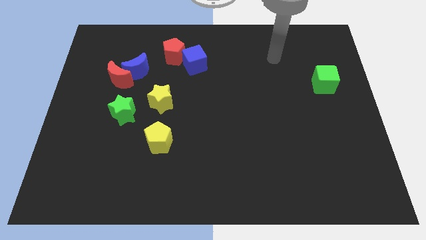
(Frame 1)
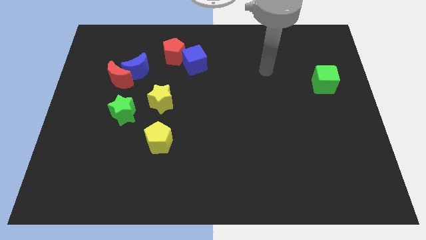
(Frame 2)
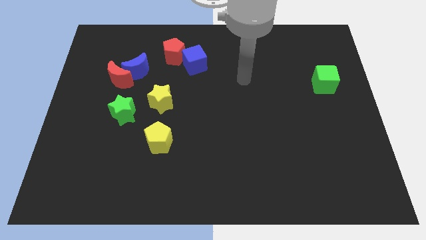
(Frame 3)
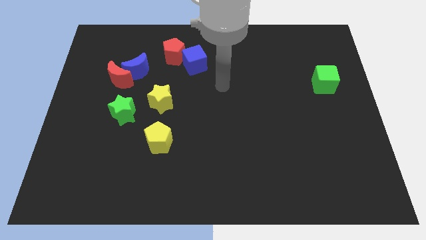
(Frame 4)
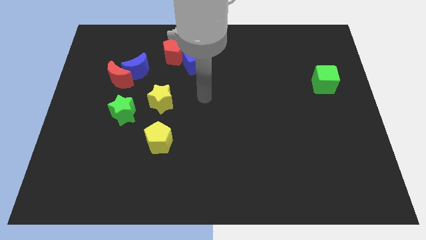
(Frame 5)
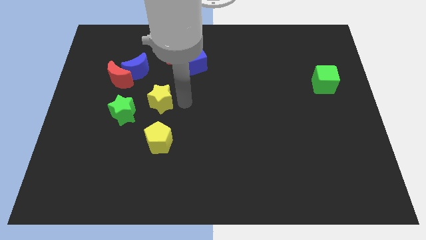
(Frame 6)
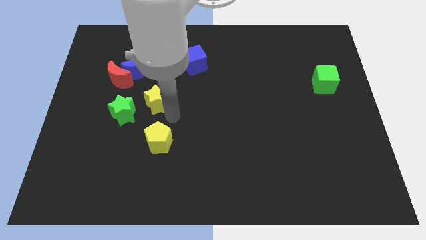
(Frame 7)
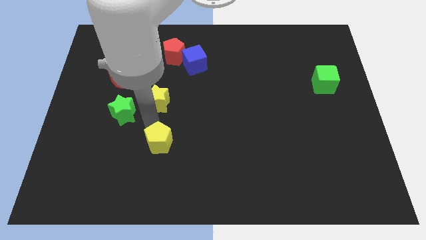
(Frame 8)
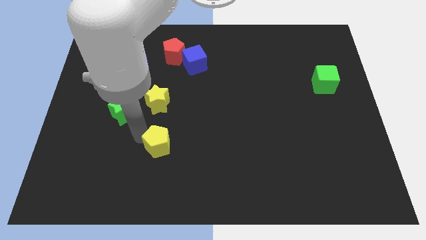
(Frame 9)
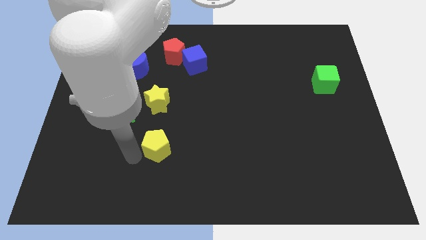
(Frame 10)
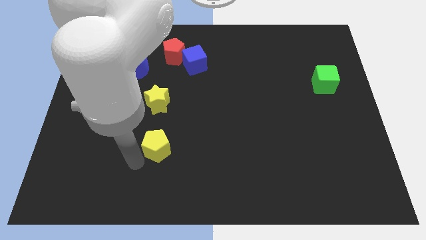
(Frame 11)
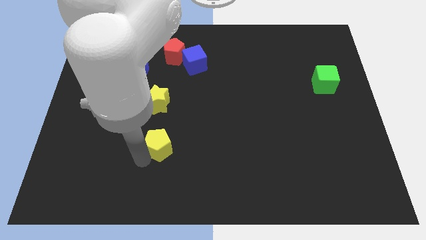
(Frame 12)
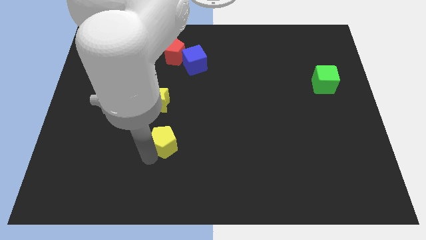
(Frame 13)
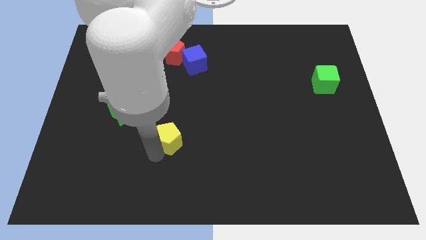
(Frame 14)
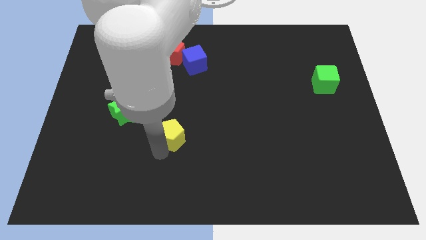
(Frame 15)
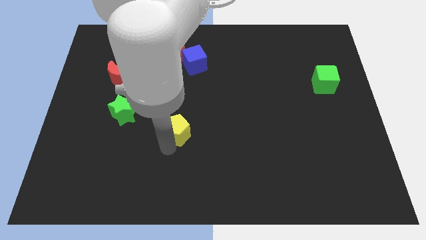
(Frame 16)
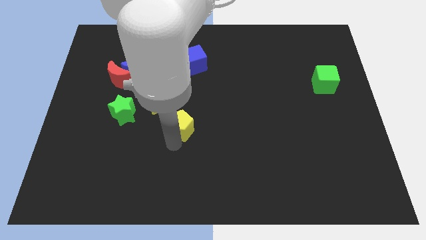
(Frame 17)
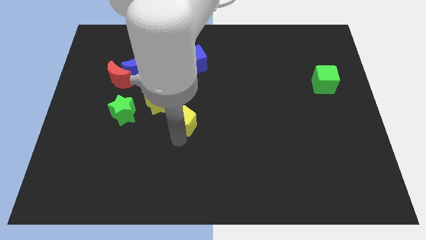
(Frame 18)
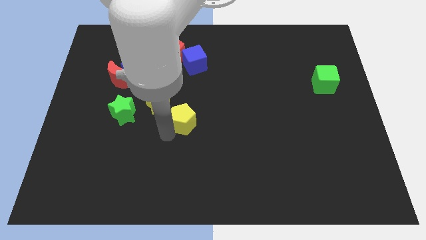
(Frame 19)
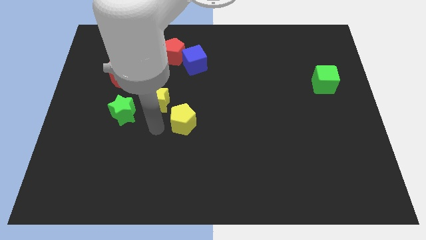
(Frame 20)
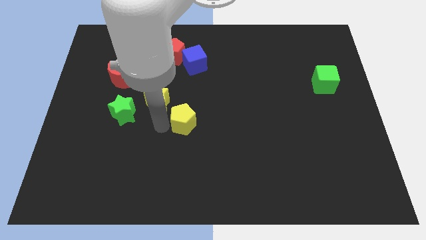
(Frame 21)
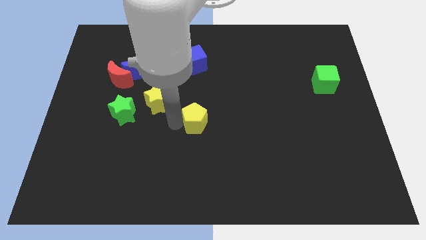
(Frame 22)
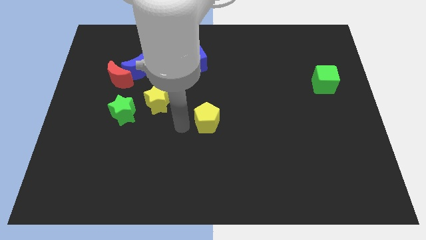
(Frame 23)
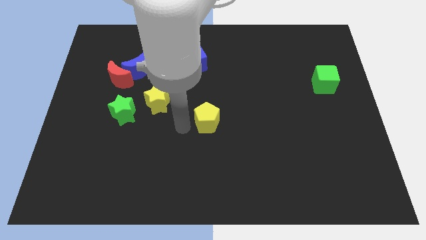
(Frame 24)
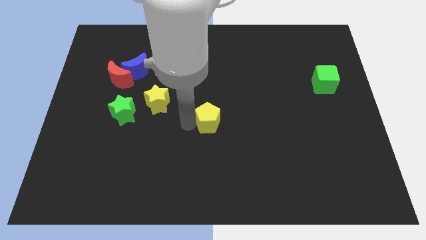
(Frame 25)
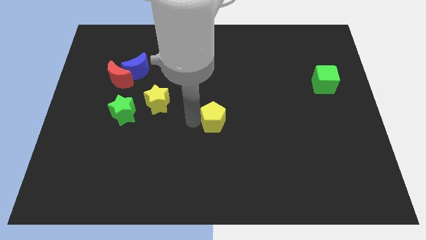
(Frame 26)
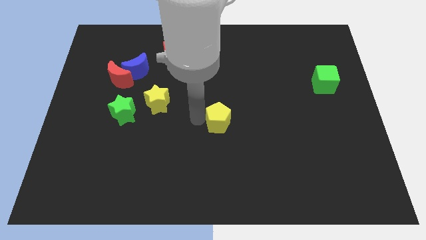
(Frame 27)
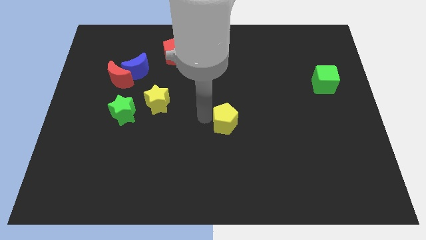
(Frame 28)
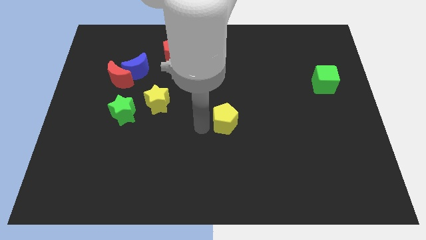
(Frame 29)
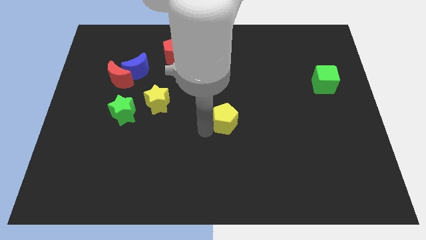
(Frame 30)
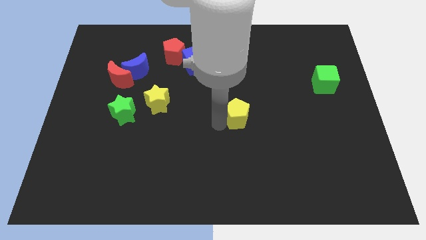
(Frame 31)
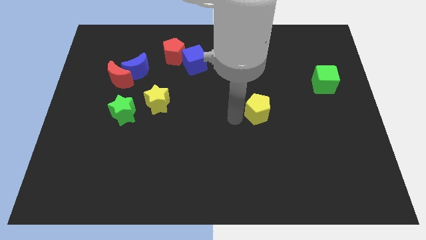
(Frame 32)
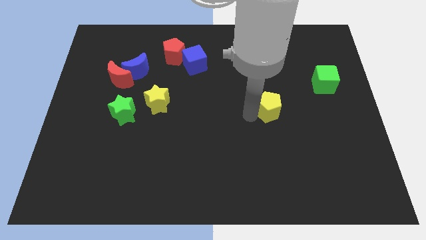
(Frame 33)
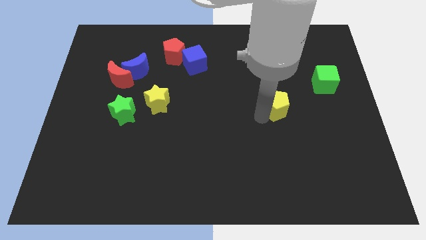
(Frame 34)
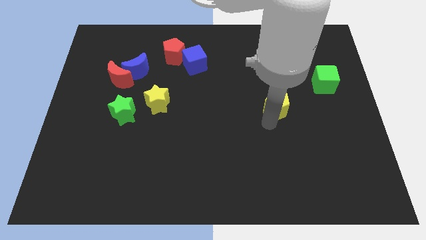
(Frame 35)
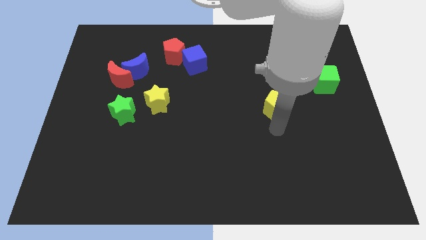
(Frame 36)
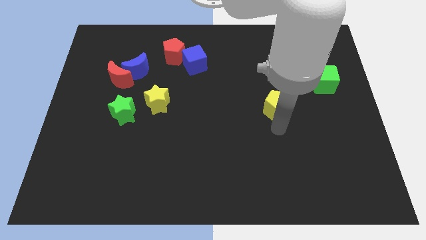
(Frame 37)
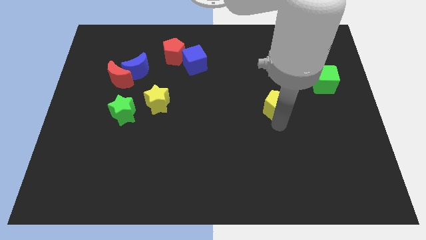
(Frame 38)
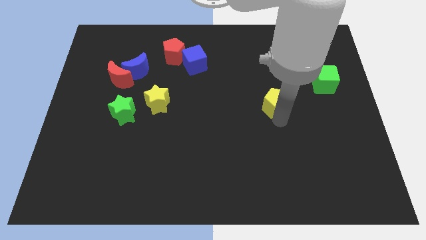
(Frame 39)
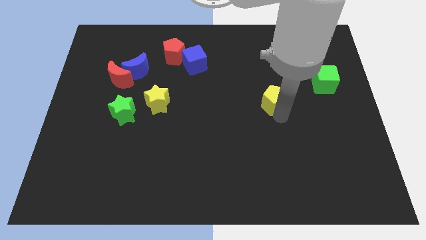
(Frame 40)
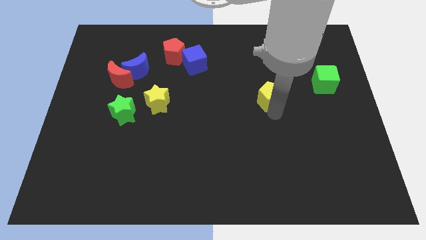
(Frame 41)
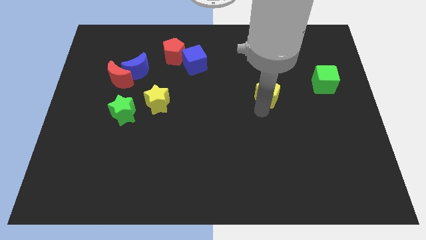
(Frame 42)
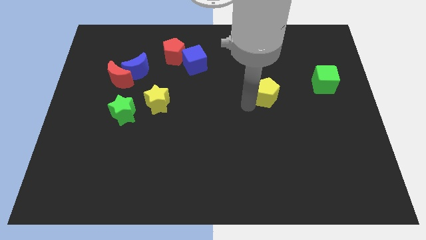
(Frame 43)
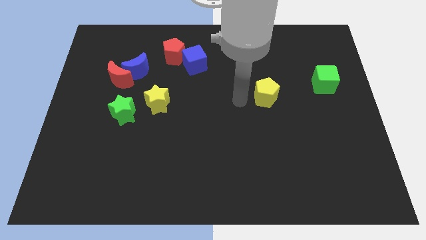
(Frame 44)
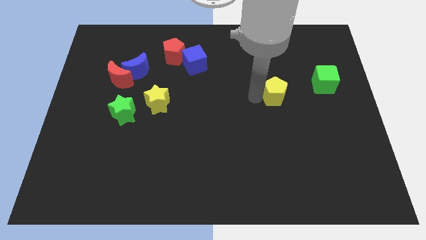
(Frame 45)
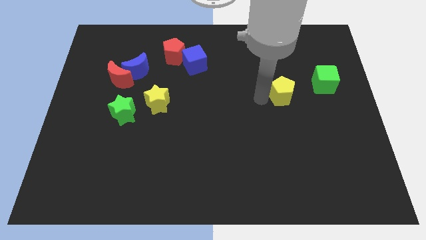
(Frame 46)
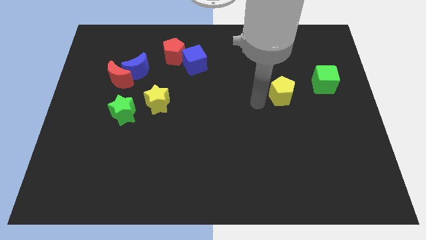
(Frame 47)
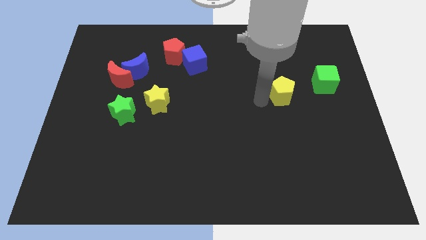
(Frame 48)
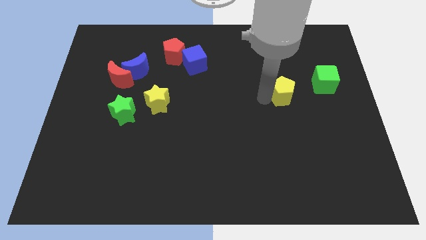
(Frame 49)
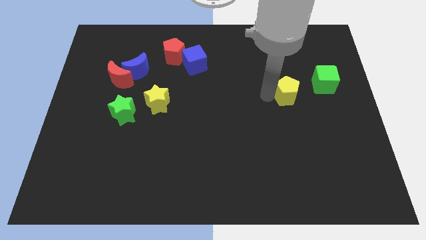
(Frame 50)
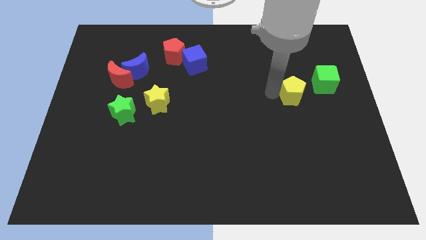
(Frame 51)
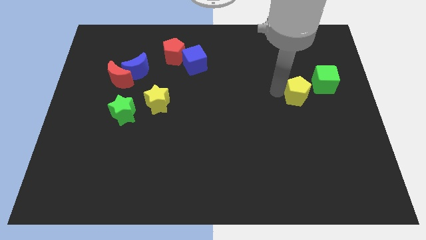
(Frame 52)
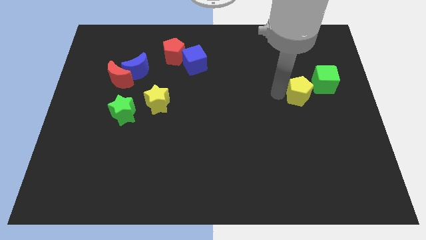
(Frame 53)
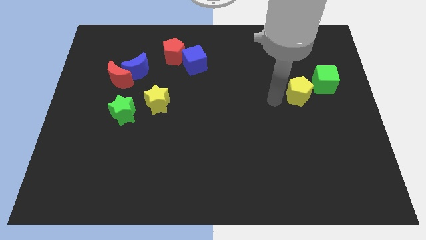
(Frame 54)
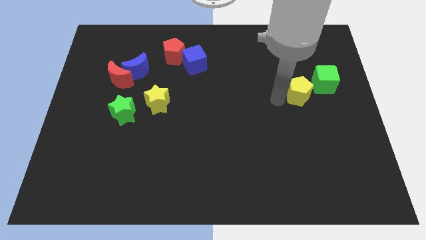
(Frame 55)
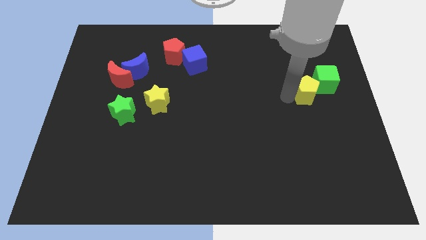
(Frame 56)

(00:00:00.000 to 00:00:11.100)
put the yellow pentagon to the green cube

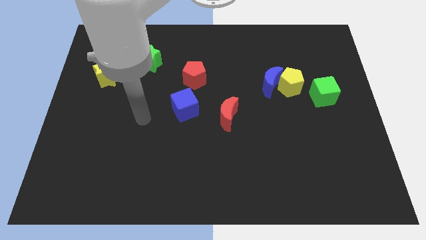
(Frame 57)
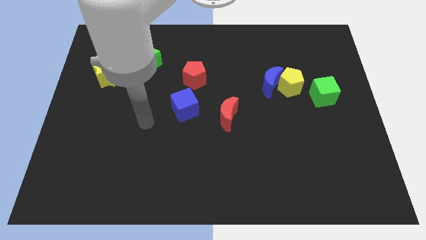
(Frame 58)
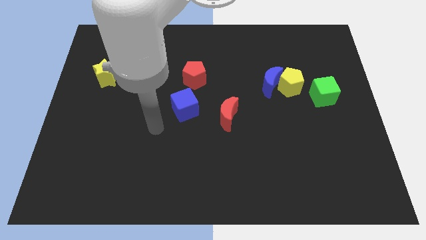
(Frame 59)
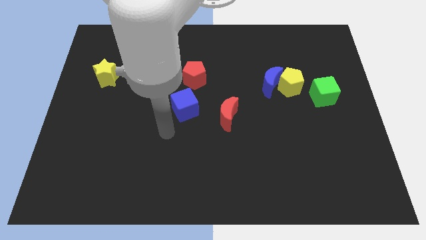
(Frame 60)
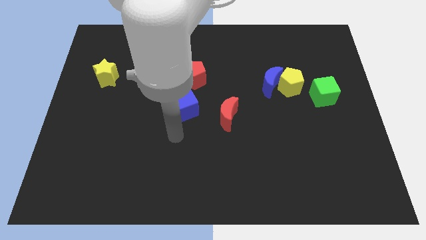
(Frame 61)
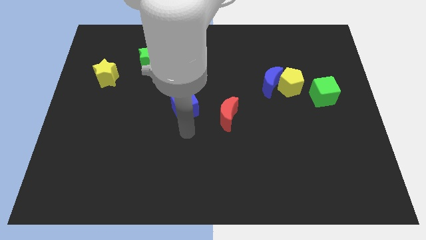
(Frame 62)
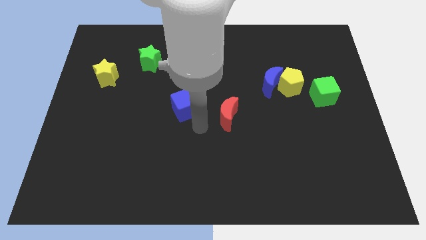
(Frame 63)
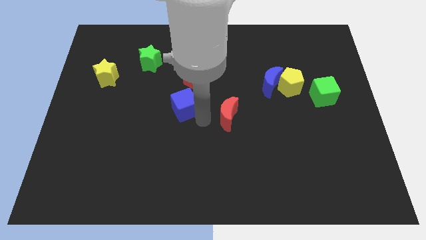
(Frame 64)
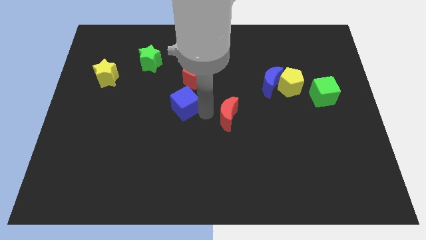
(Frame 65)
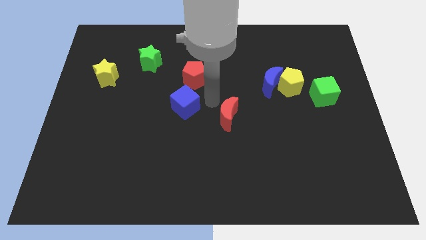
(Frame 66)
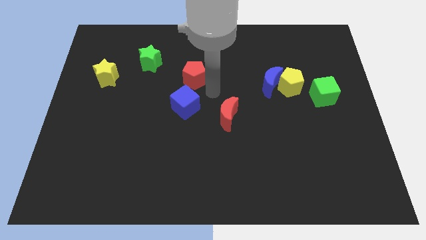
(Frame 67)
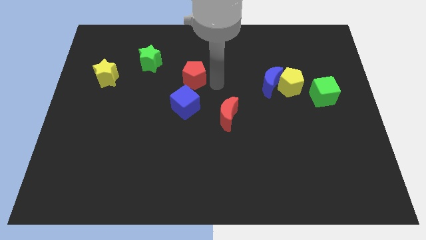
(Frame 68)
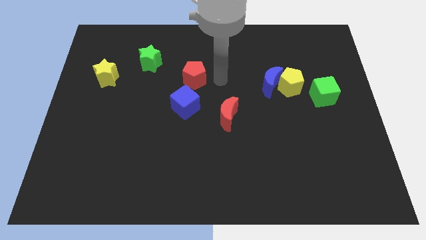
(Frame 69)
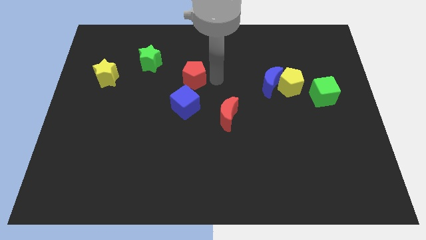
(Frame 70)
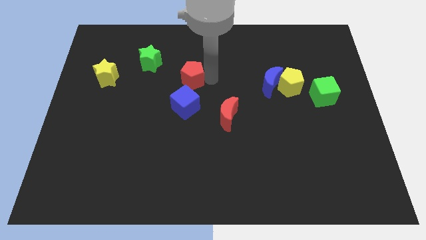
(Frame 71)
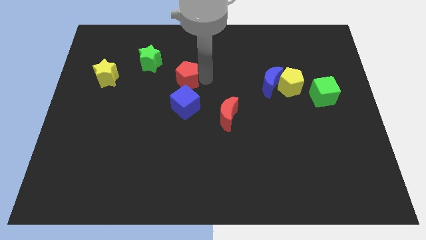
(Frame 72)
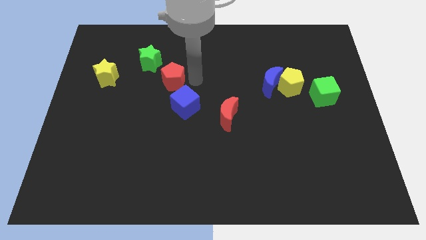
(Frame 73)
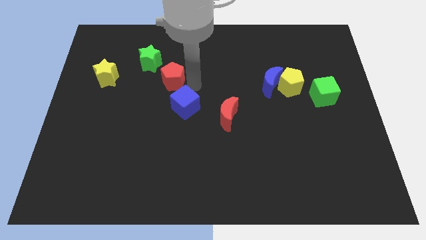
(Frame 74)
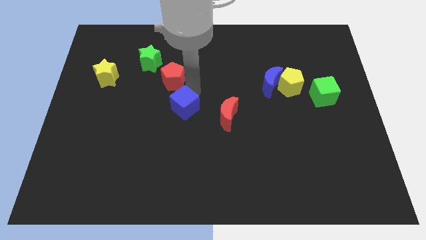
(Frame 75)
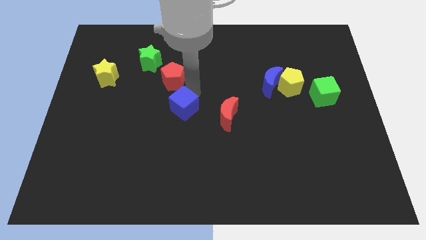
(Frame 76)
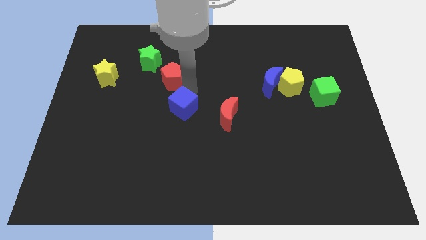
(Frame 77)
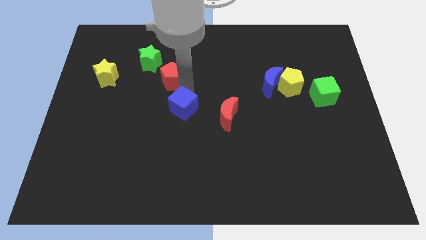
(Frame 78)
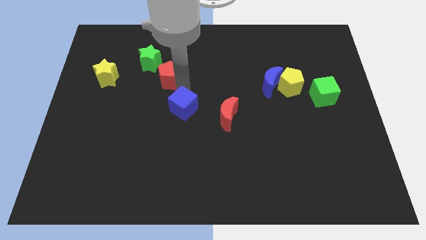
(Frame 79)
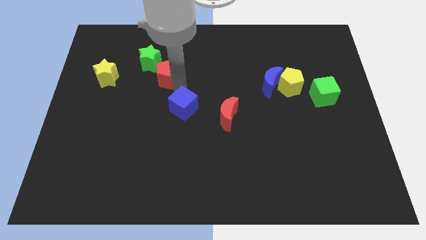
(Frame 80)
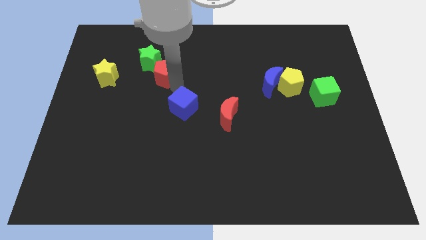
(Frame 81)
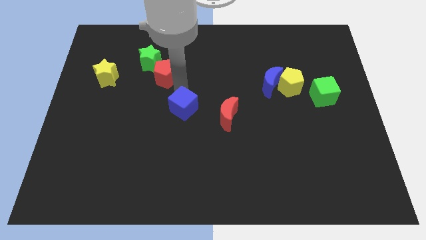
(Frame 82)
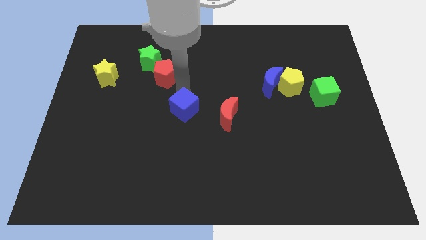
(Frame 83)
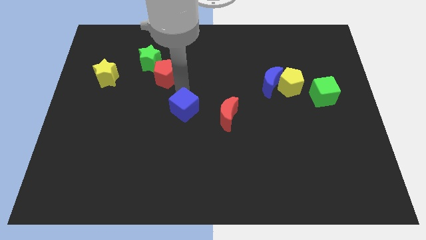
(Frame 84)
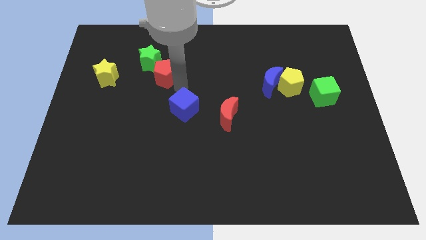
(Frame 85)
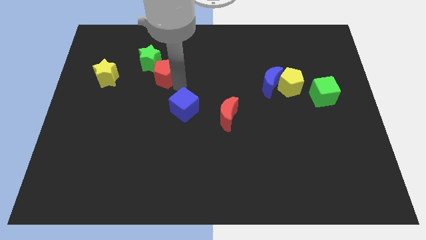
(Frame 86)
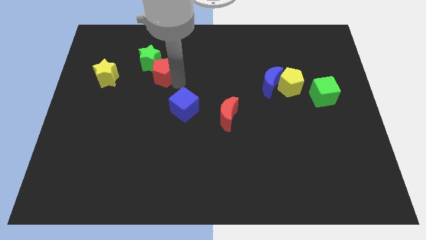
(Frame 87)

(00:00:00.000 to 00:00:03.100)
slide the red pentagon next to the green star
